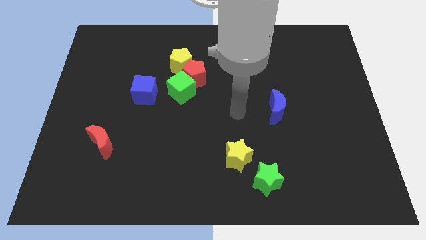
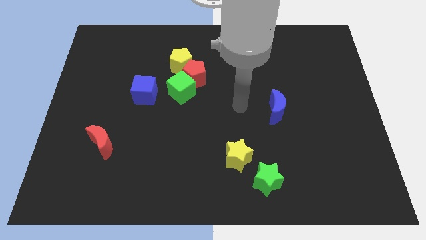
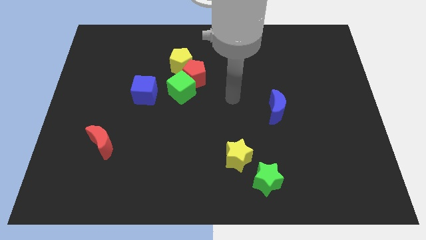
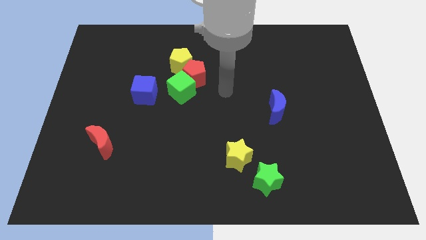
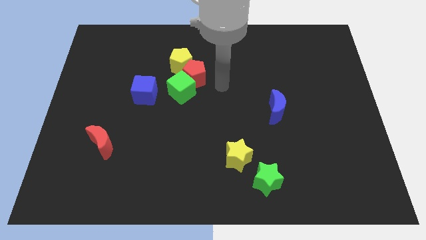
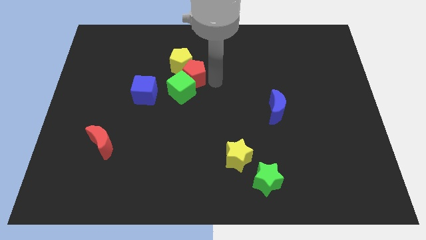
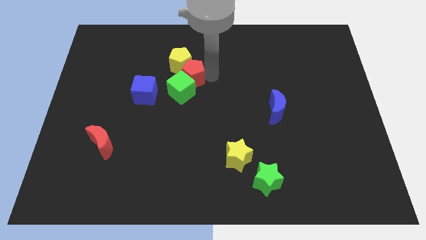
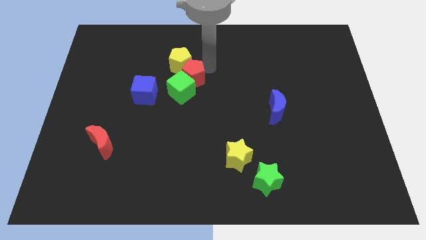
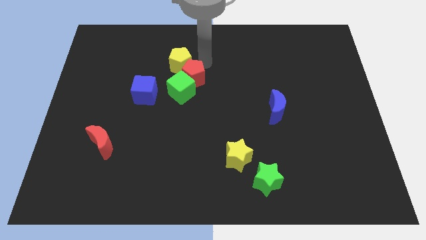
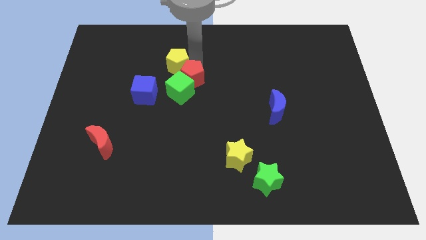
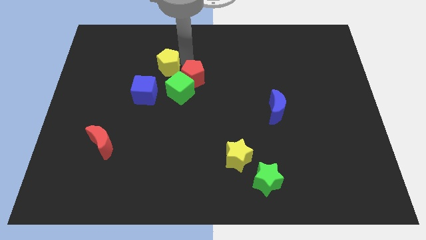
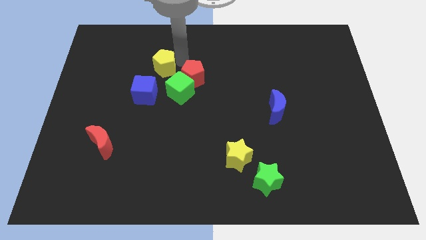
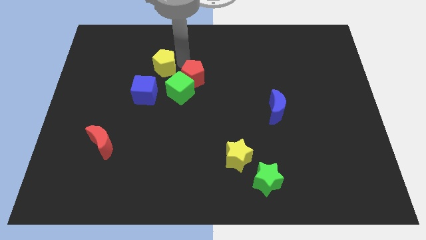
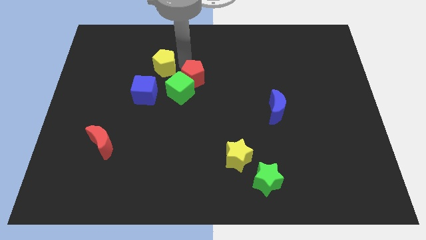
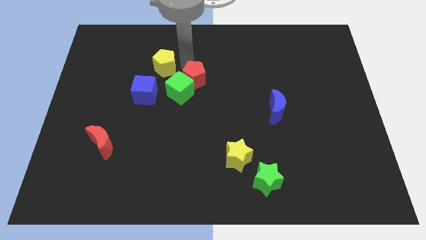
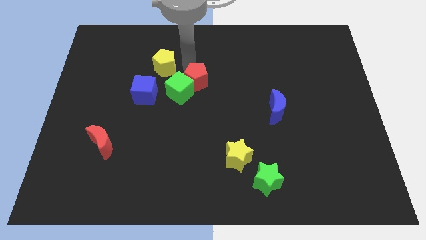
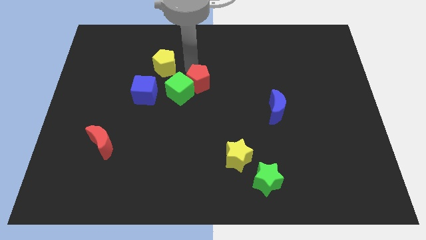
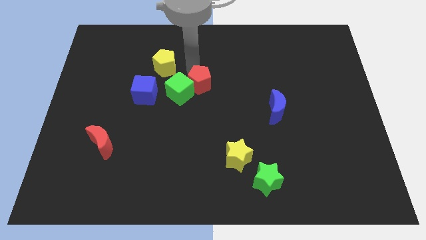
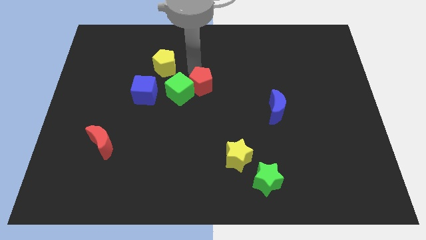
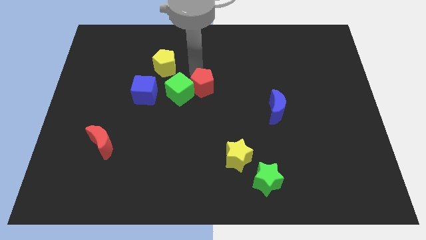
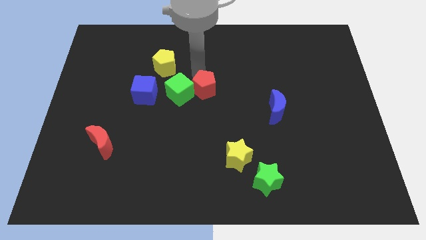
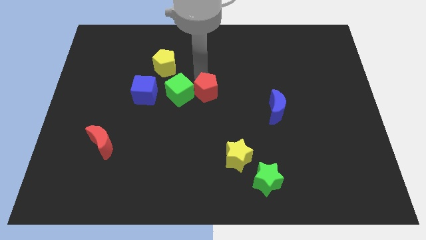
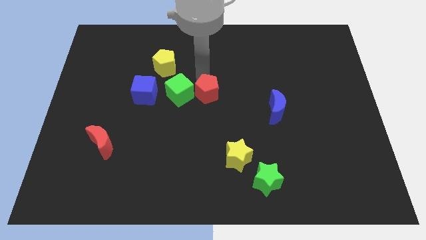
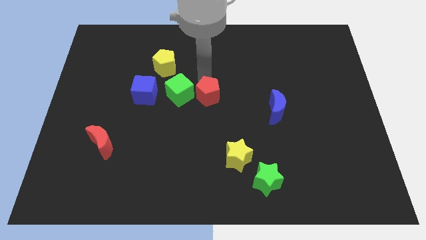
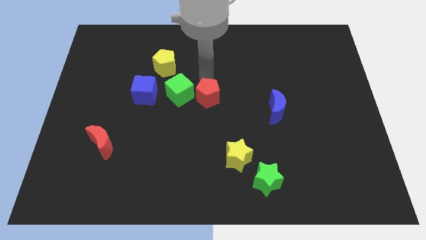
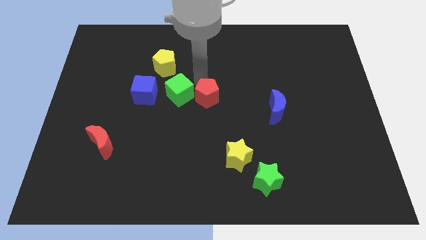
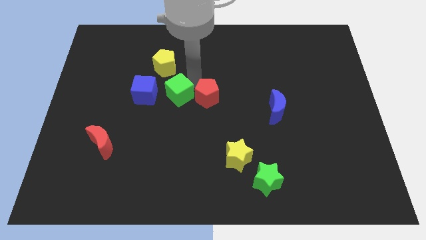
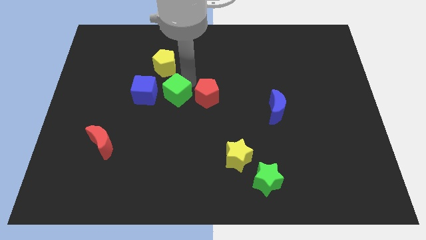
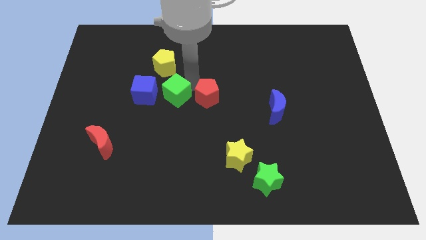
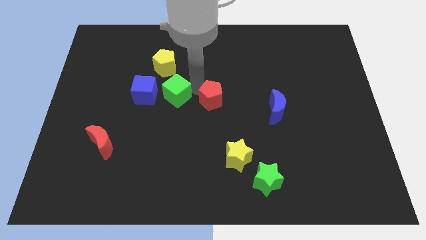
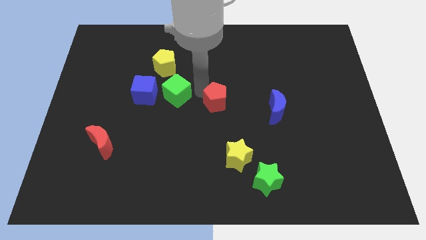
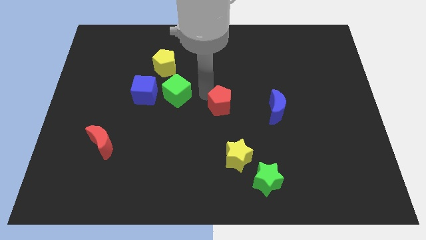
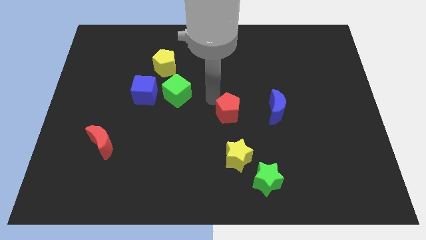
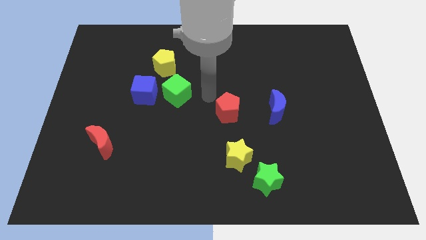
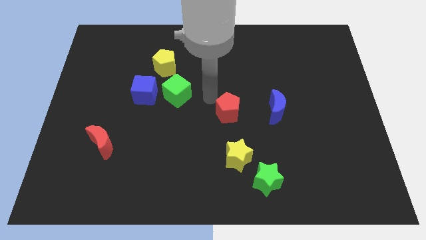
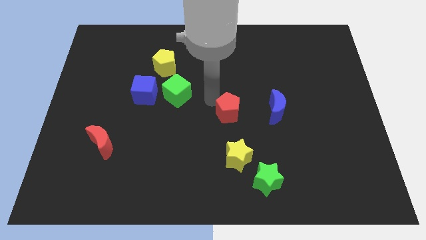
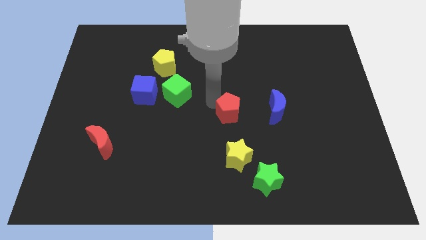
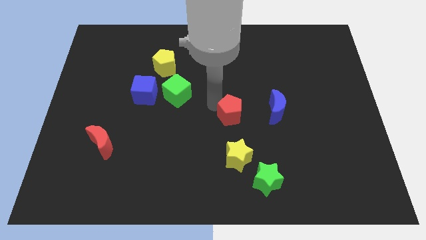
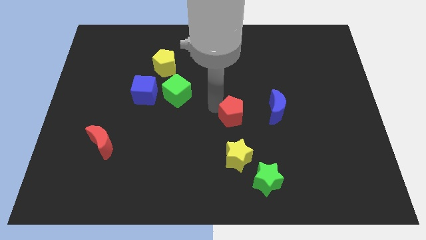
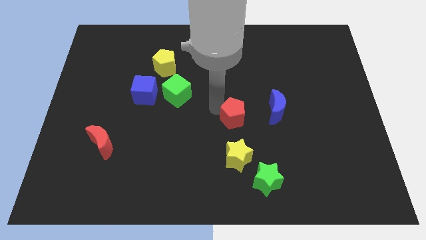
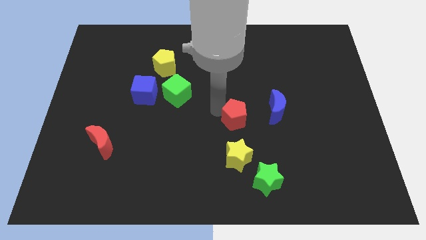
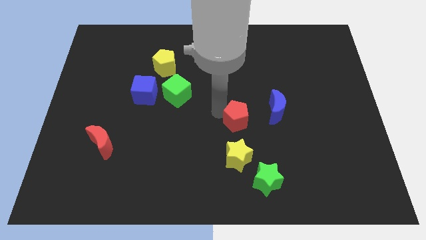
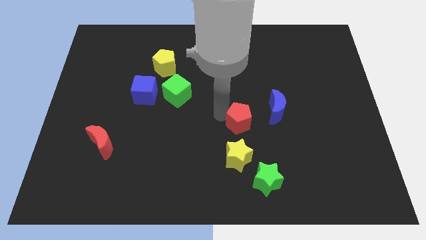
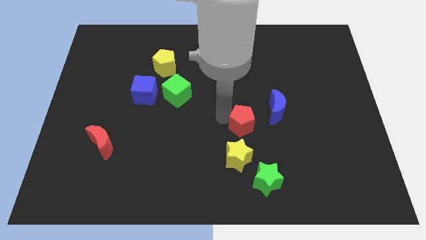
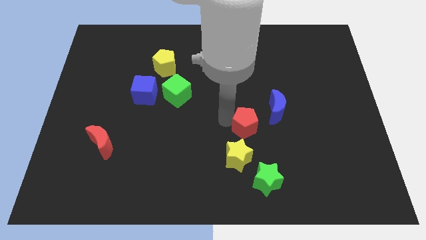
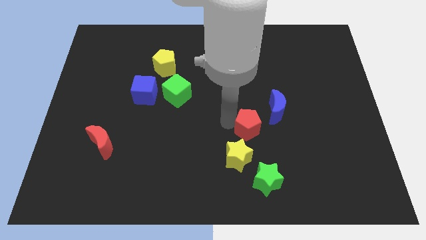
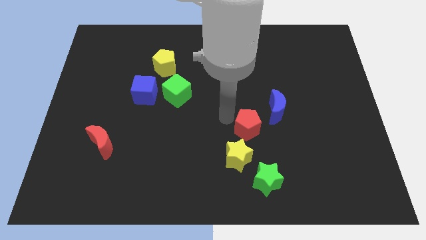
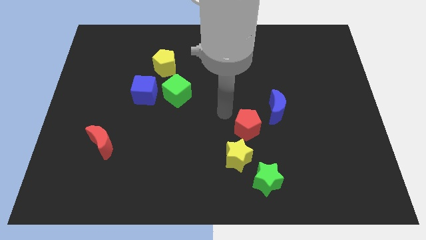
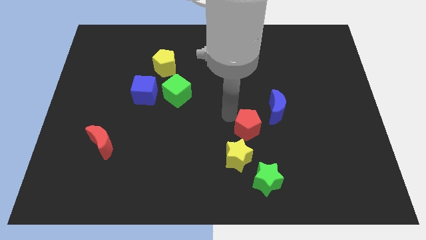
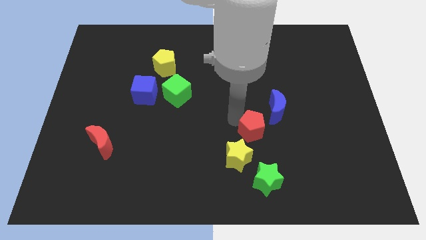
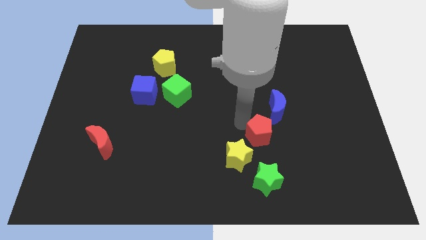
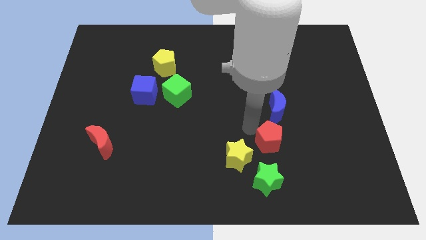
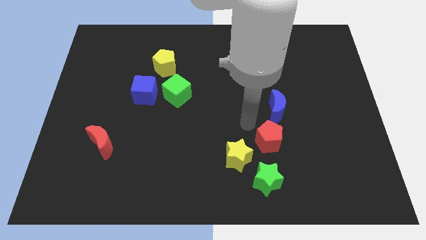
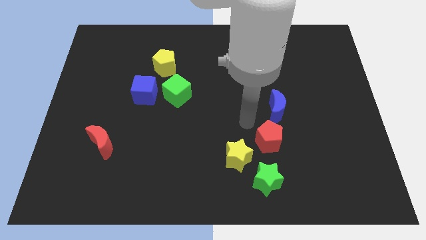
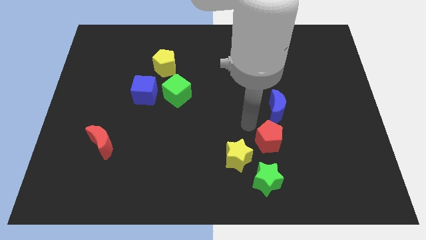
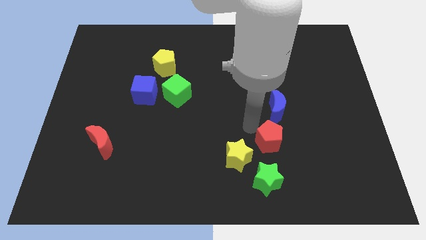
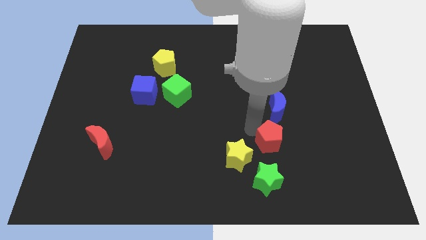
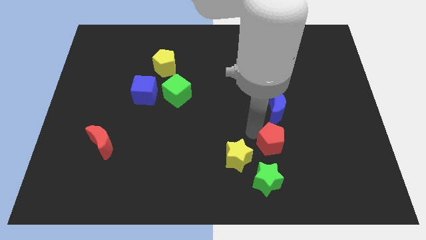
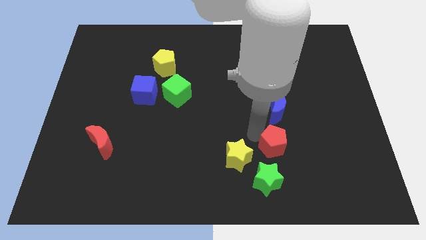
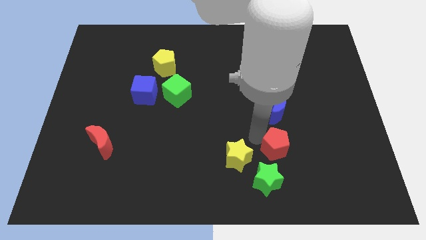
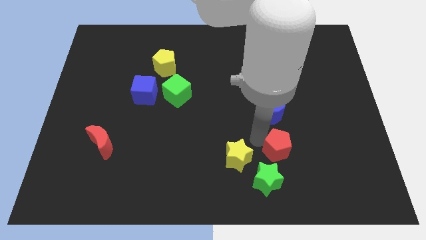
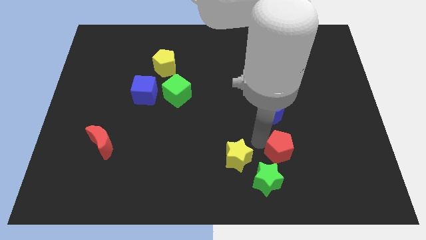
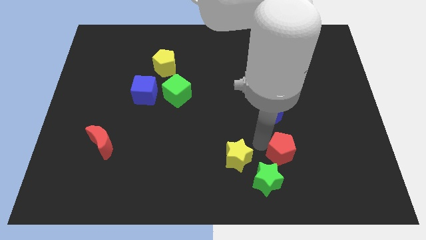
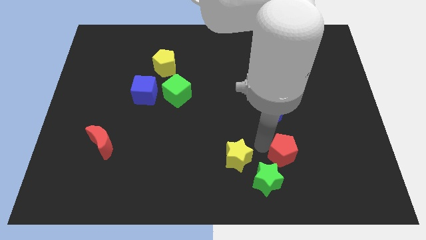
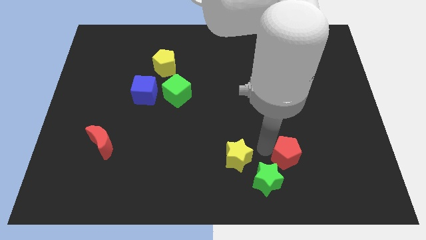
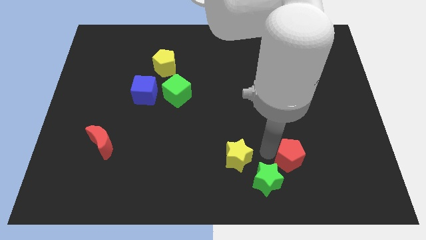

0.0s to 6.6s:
push the red pentagon to the right of the green star

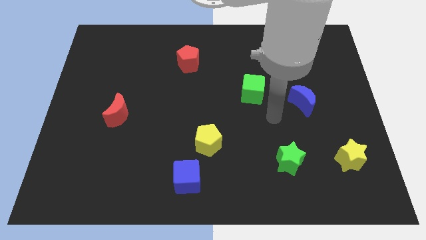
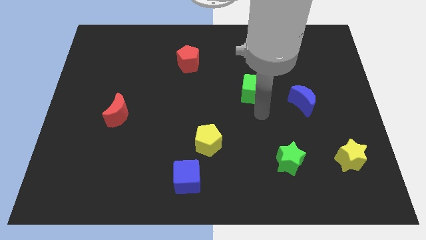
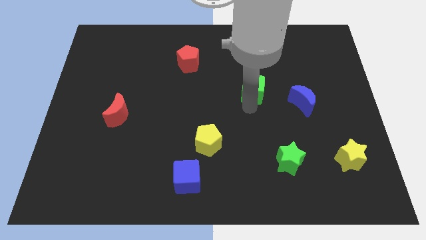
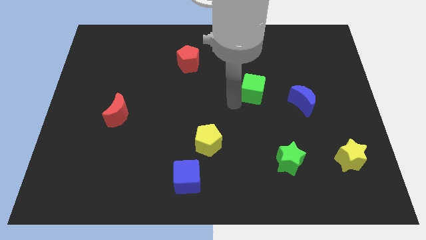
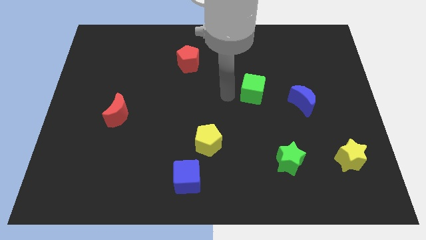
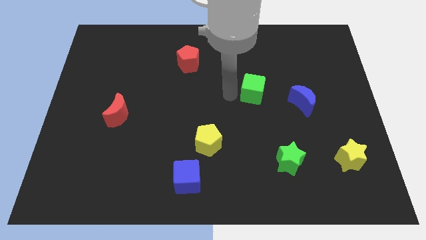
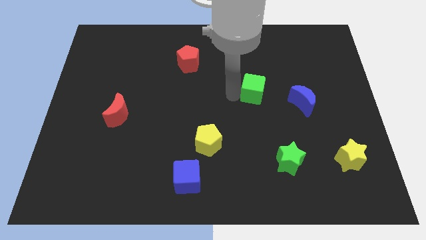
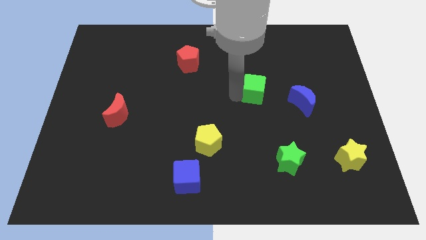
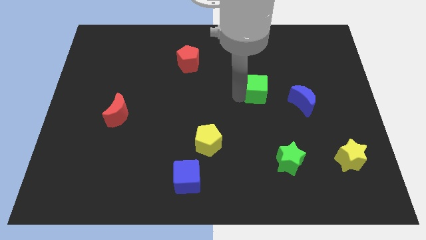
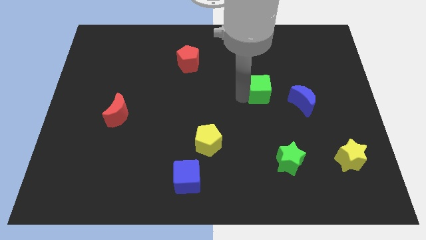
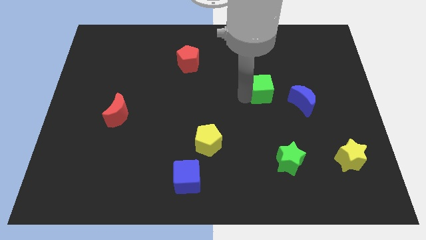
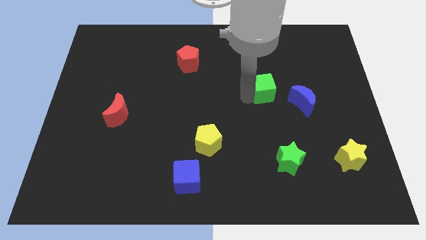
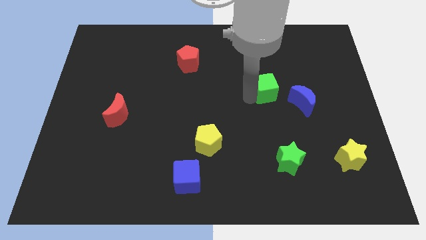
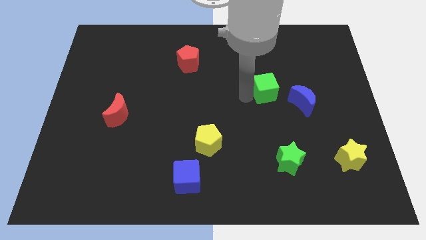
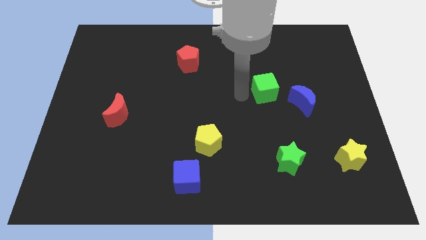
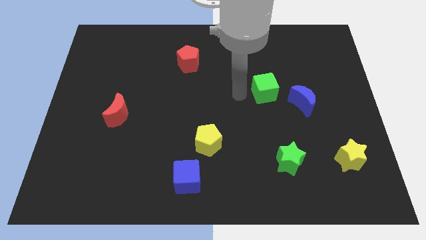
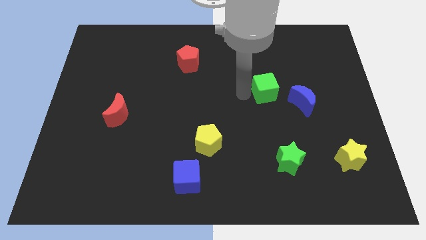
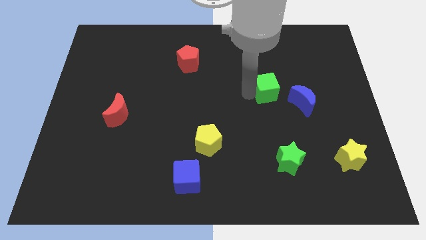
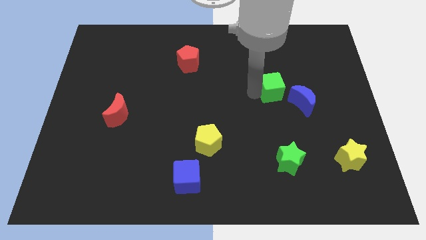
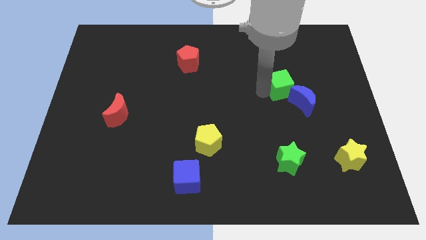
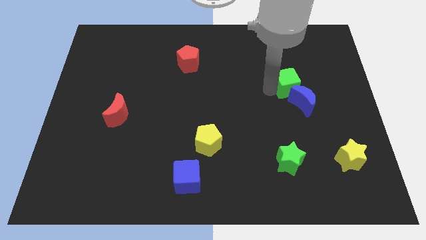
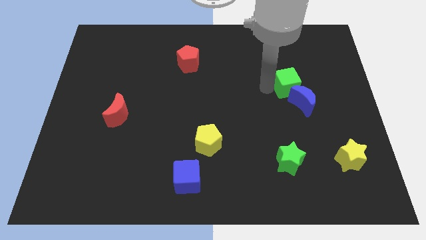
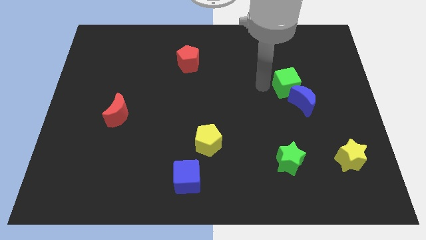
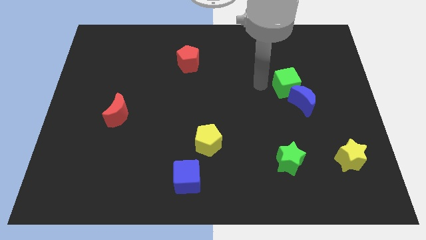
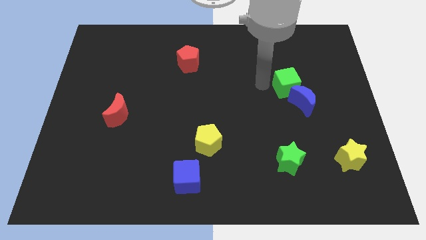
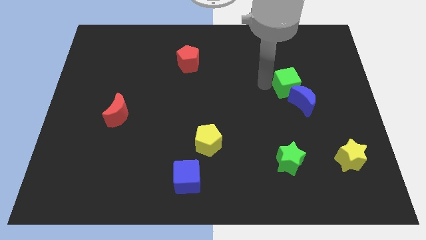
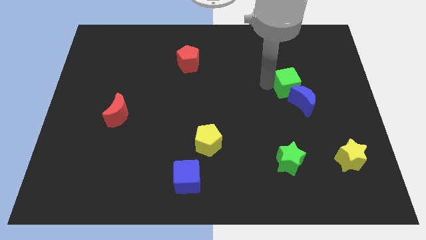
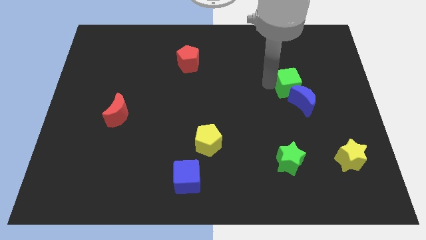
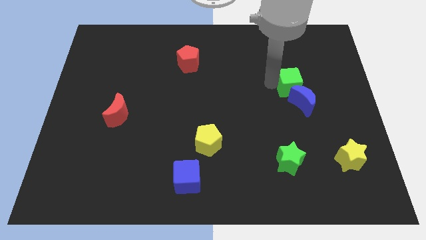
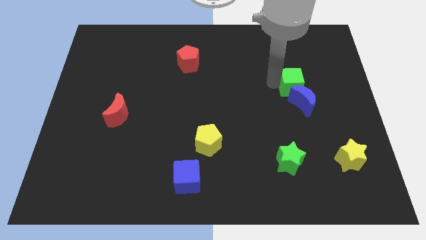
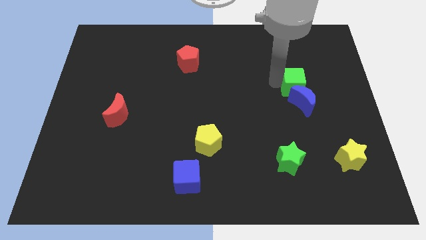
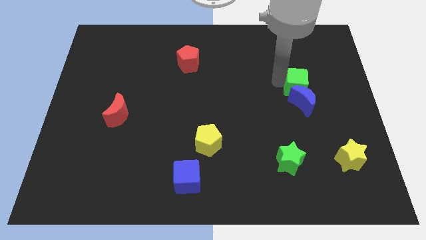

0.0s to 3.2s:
slide the green cube diagonally up and to the right of the blue moon
